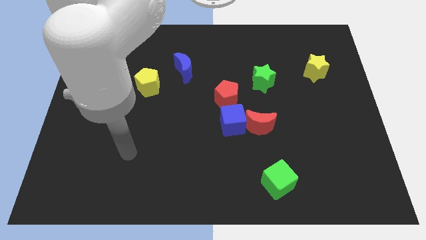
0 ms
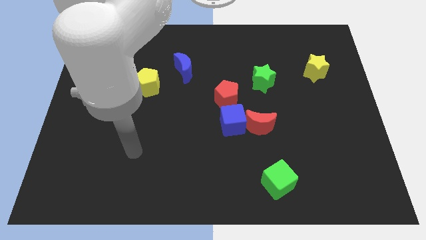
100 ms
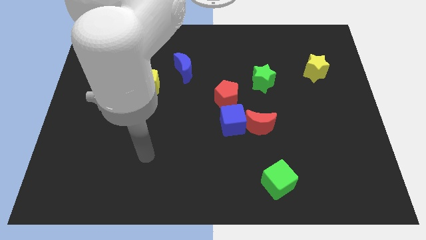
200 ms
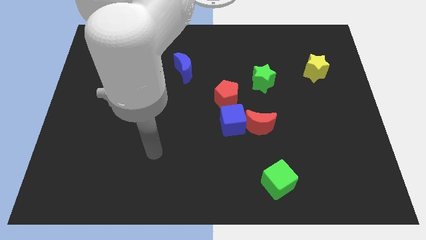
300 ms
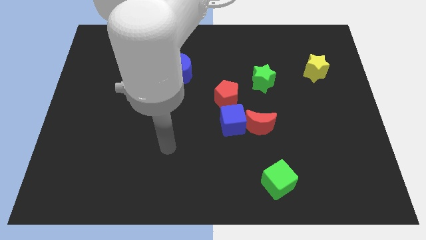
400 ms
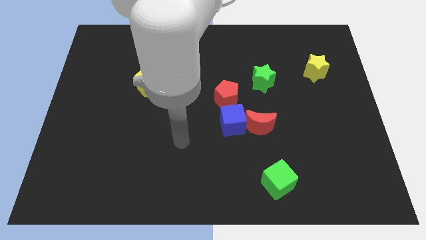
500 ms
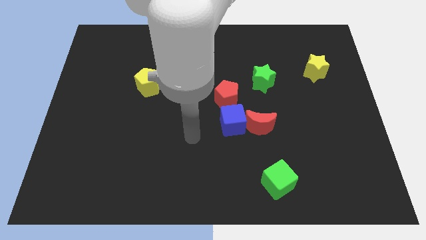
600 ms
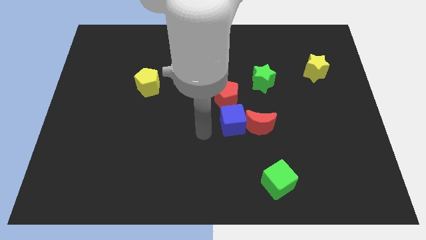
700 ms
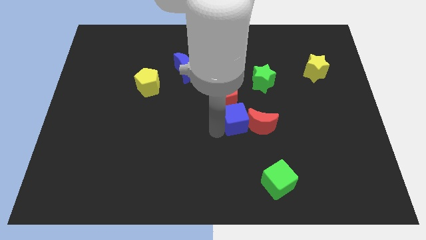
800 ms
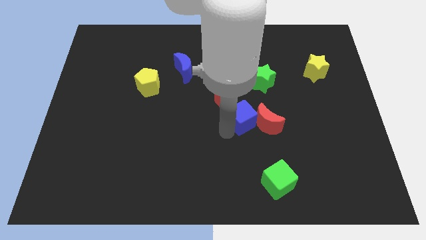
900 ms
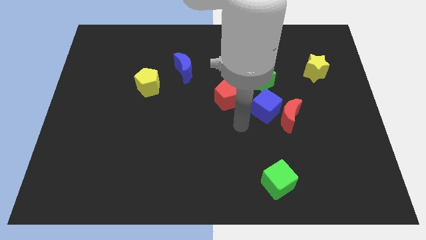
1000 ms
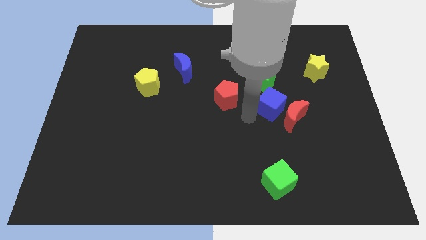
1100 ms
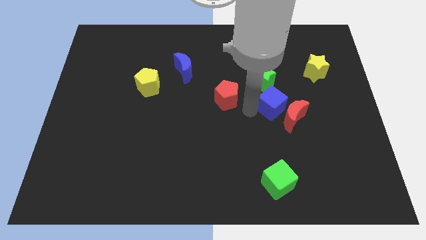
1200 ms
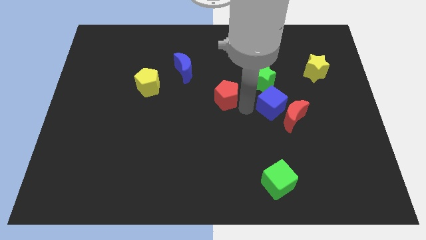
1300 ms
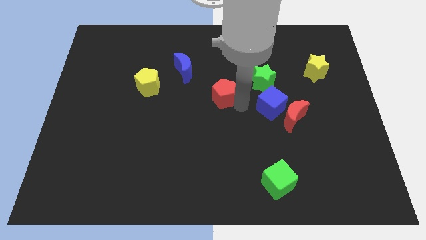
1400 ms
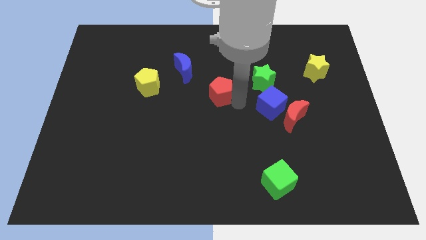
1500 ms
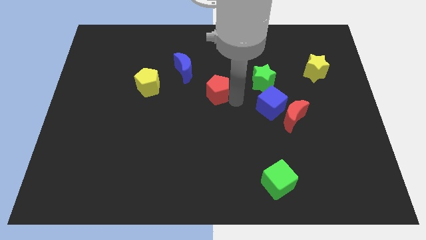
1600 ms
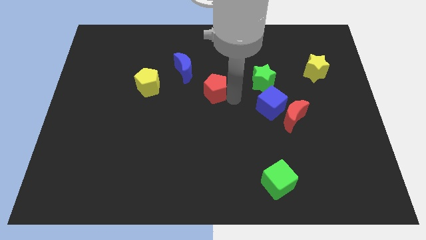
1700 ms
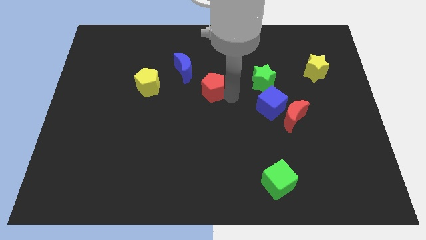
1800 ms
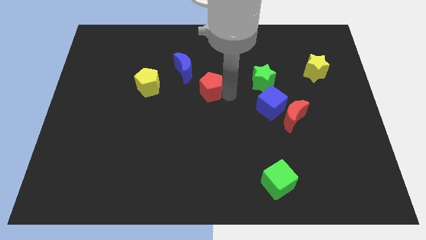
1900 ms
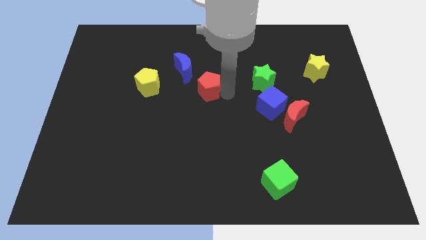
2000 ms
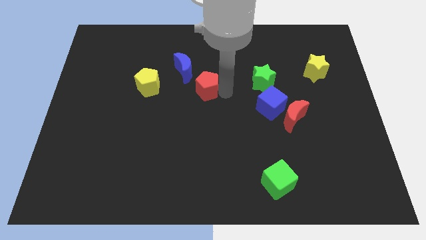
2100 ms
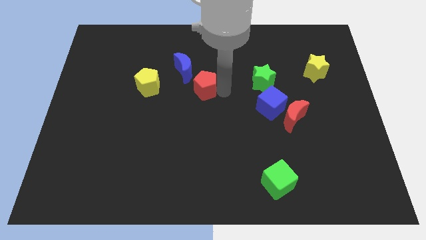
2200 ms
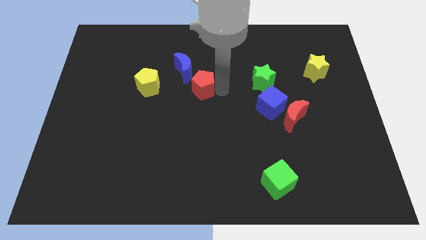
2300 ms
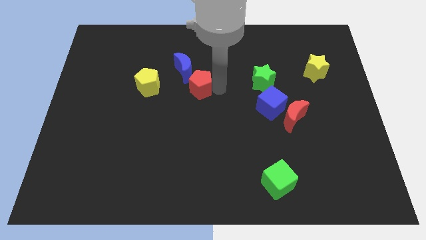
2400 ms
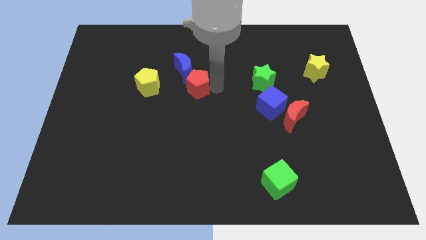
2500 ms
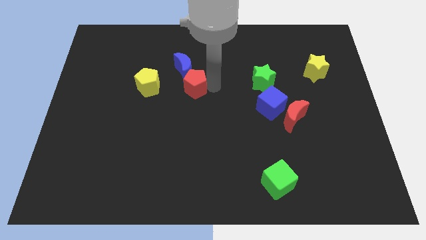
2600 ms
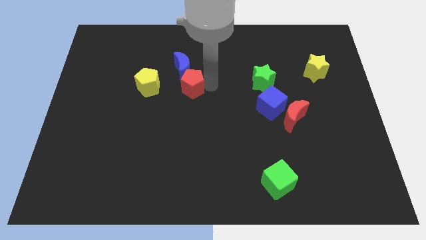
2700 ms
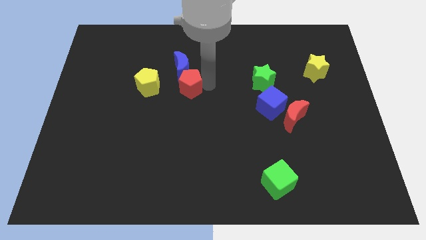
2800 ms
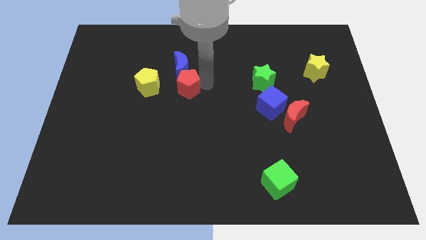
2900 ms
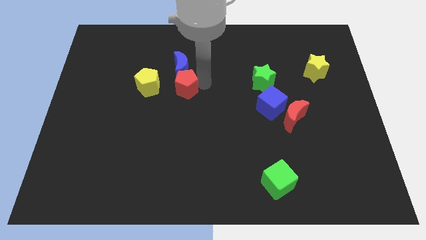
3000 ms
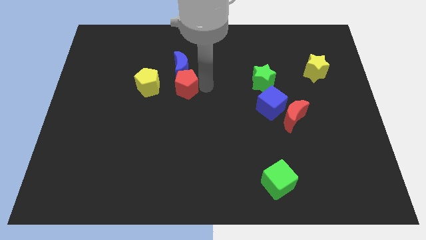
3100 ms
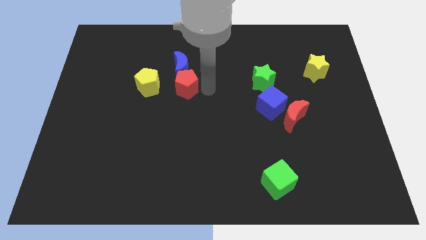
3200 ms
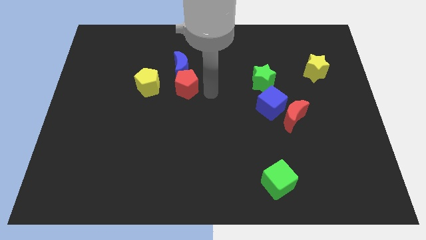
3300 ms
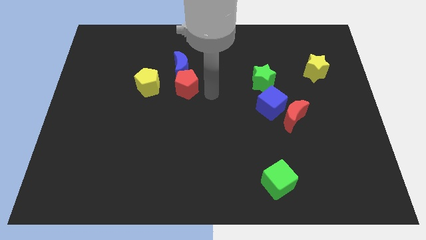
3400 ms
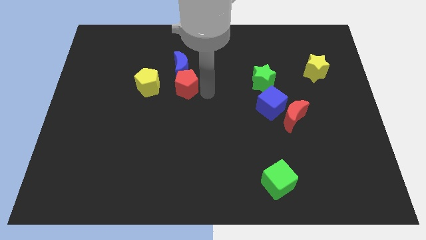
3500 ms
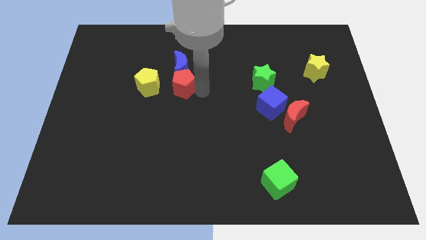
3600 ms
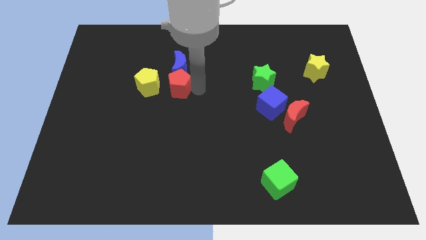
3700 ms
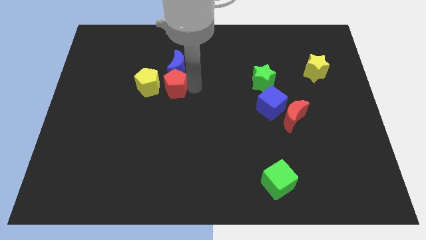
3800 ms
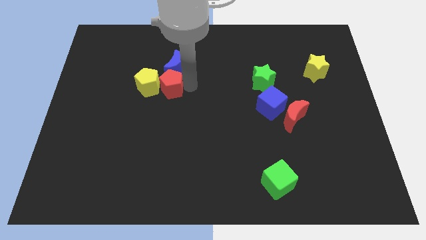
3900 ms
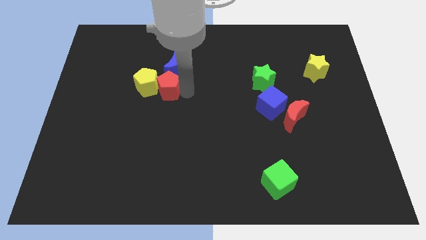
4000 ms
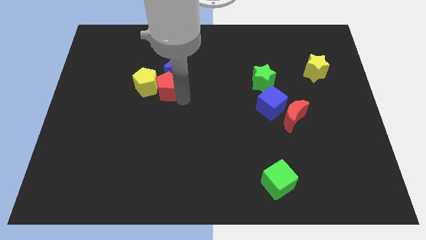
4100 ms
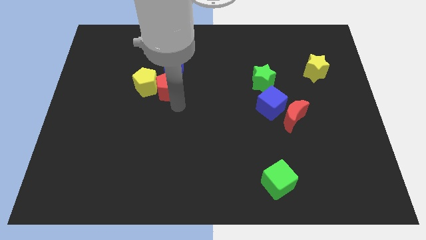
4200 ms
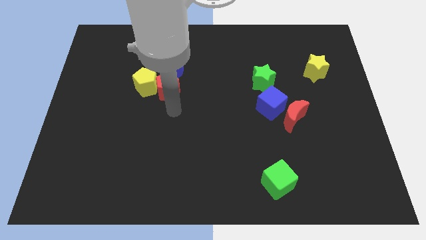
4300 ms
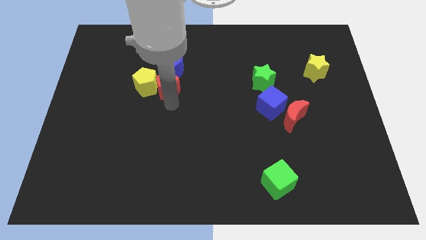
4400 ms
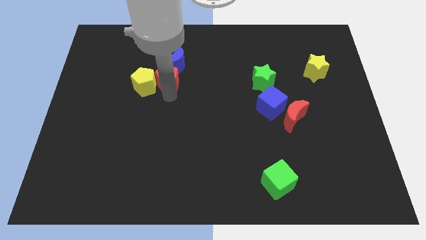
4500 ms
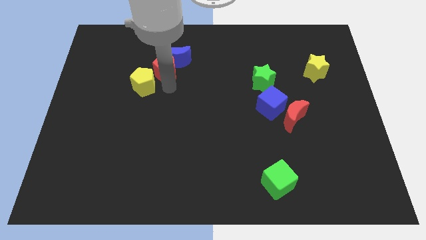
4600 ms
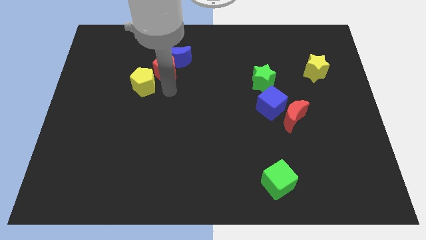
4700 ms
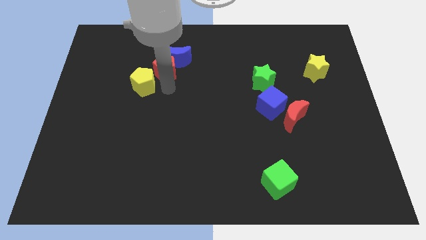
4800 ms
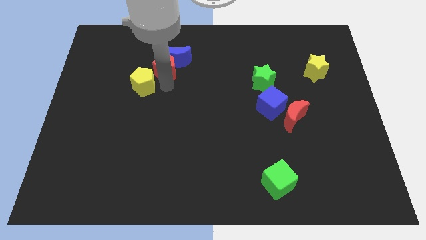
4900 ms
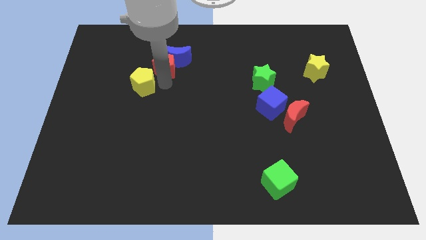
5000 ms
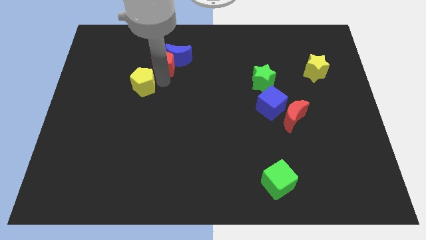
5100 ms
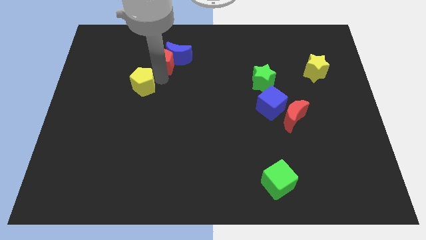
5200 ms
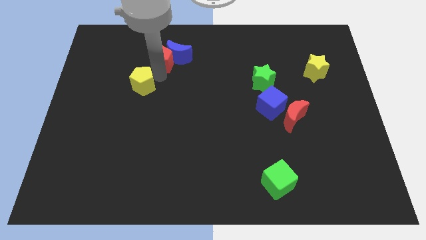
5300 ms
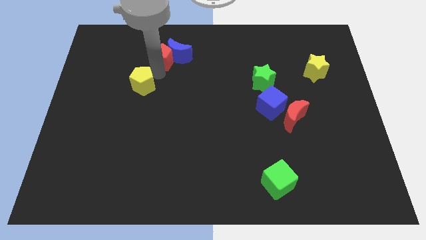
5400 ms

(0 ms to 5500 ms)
push the red pentagon diagonally up and to the left of the blue moon

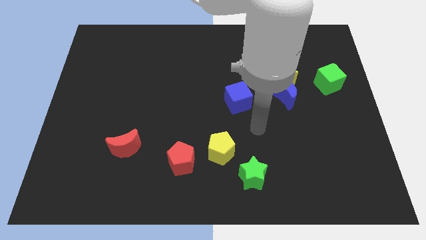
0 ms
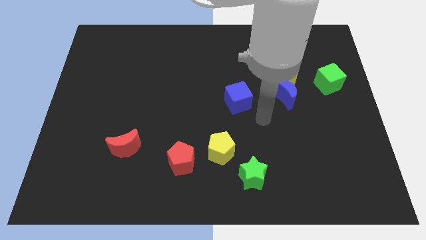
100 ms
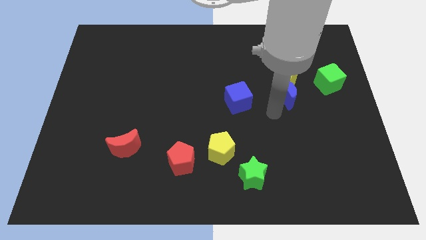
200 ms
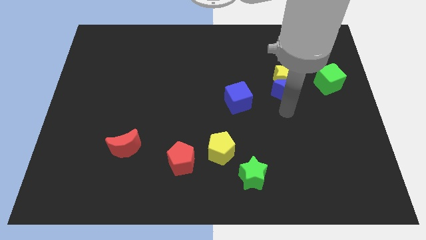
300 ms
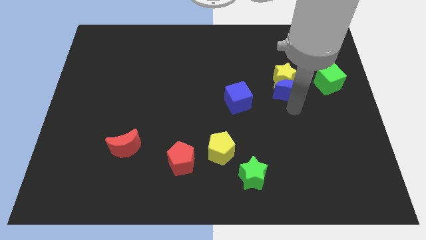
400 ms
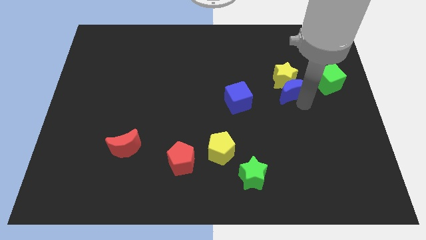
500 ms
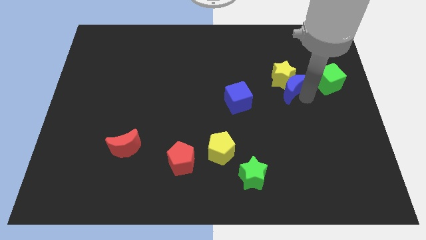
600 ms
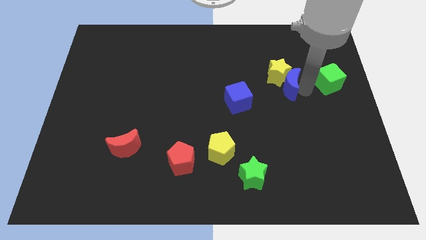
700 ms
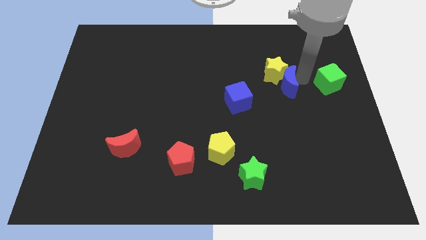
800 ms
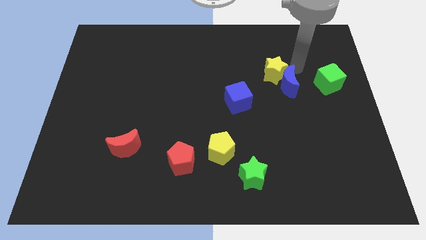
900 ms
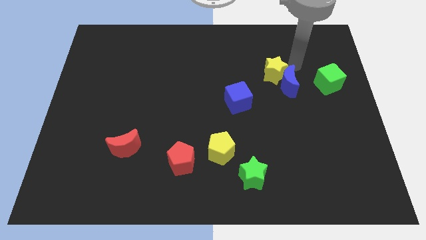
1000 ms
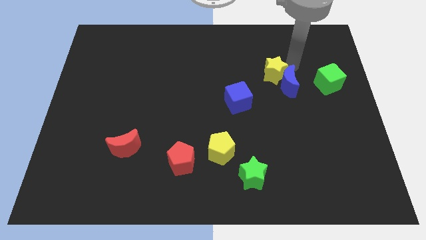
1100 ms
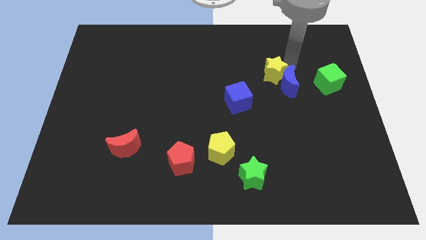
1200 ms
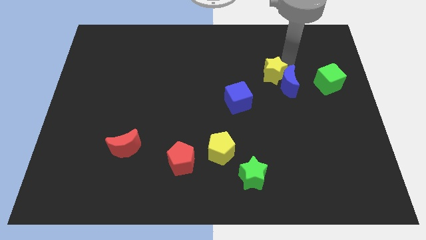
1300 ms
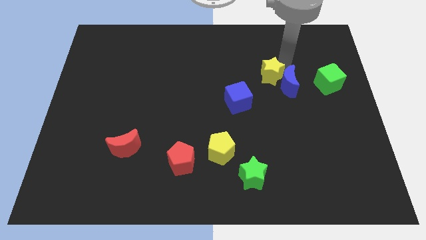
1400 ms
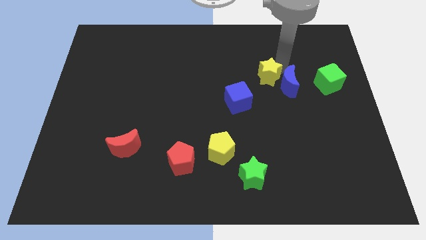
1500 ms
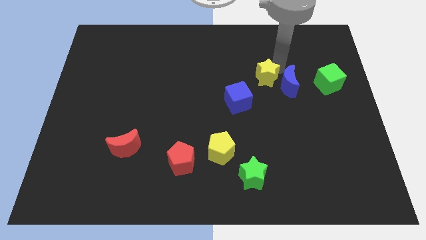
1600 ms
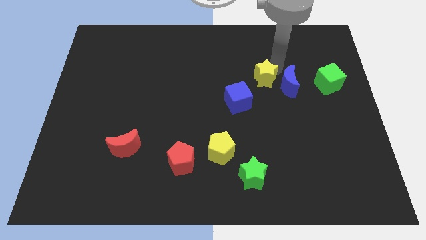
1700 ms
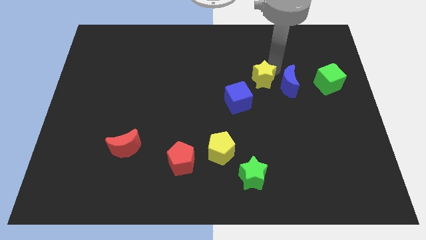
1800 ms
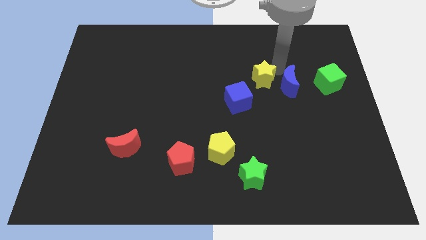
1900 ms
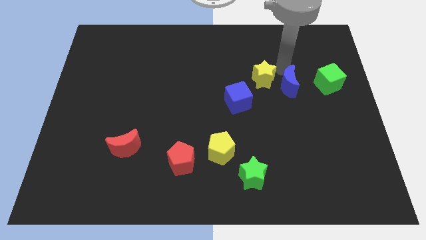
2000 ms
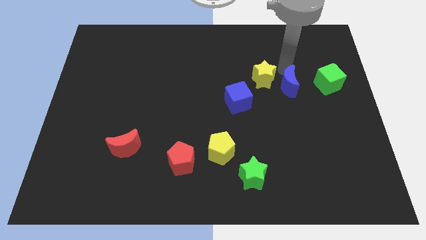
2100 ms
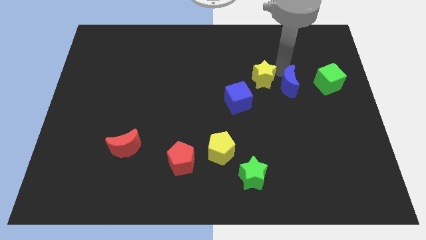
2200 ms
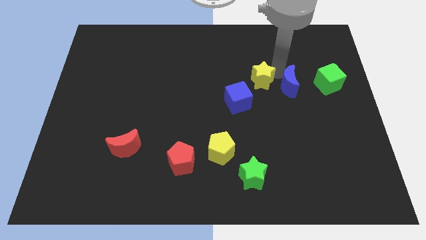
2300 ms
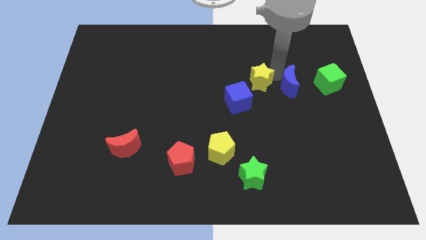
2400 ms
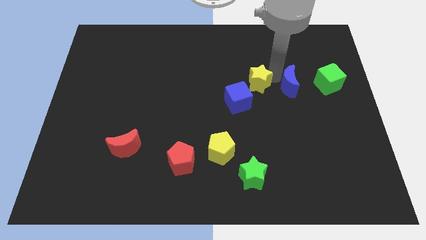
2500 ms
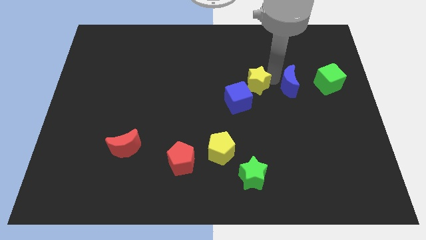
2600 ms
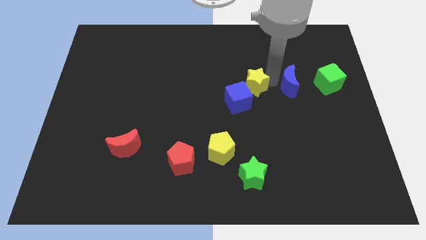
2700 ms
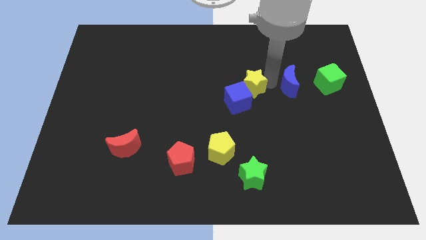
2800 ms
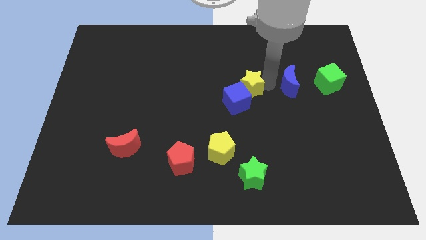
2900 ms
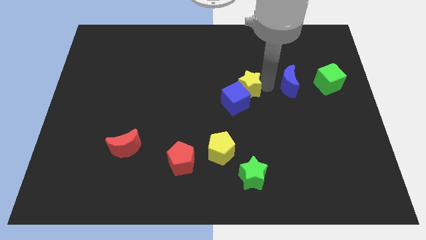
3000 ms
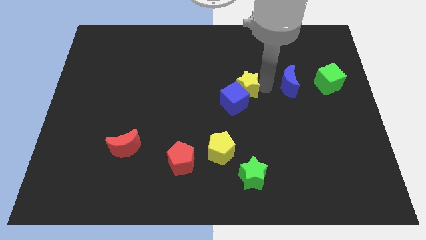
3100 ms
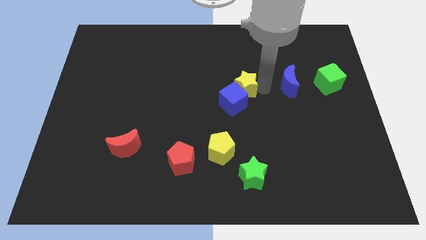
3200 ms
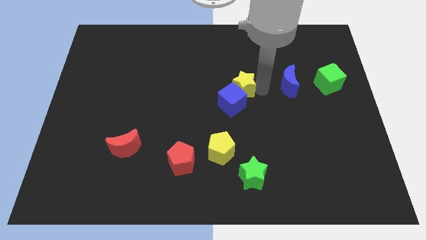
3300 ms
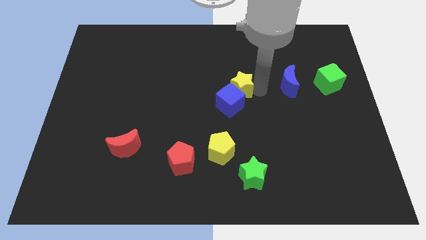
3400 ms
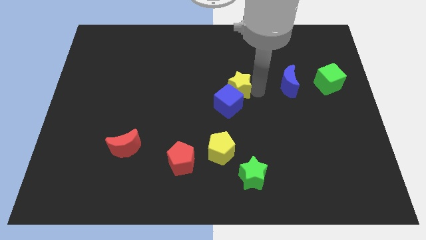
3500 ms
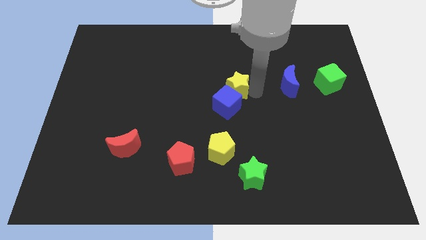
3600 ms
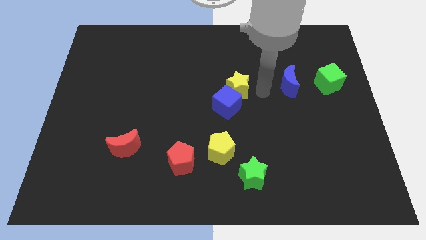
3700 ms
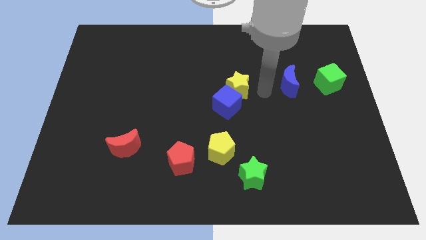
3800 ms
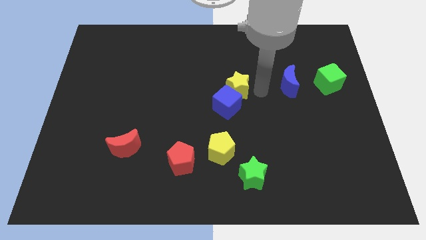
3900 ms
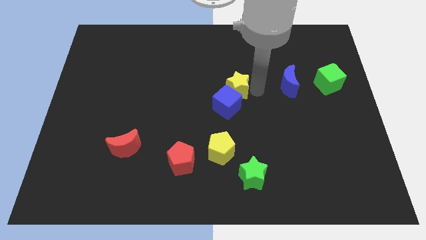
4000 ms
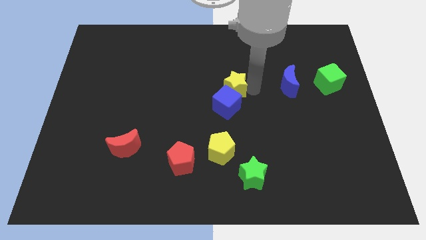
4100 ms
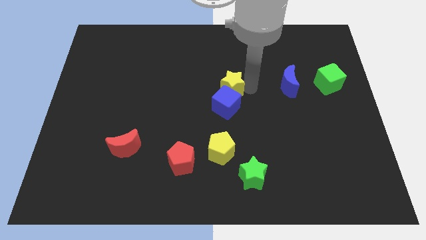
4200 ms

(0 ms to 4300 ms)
put the yellow star to the top left of the blue cube
